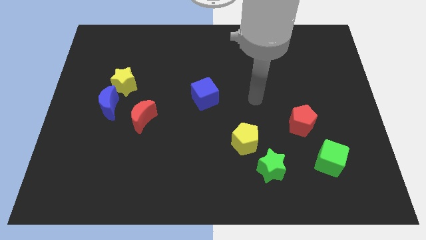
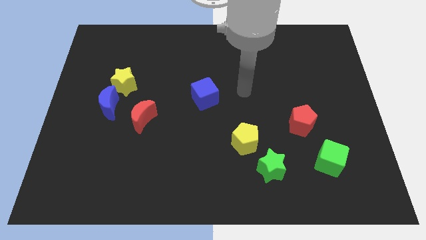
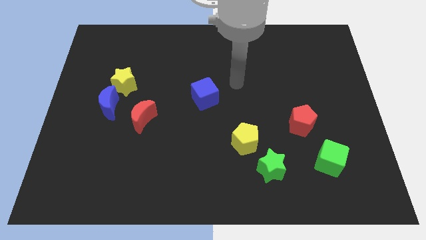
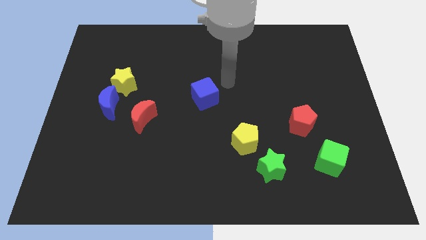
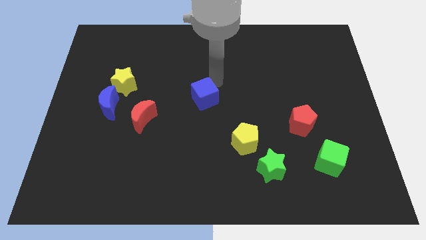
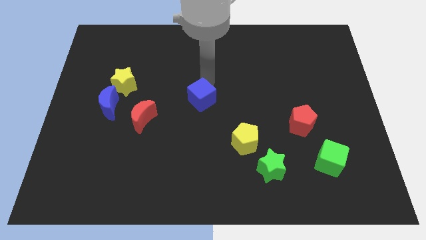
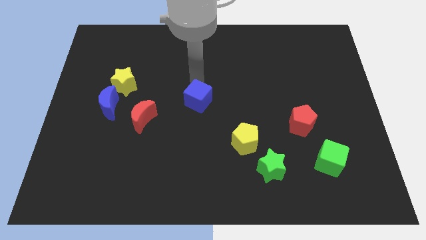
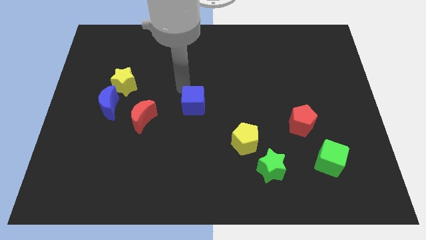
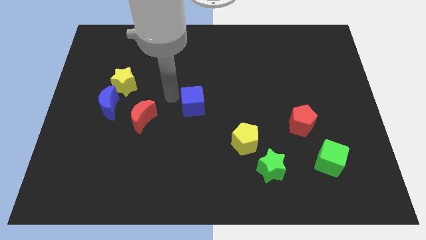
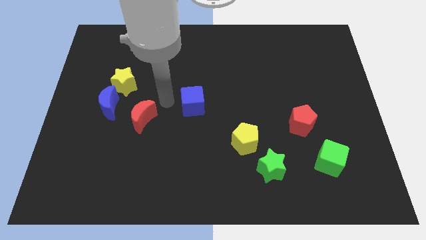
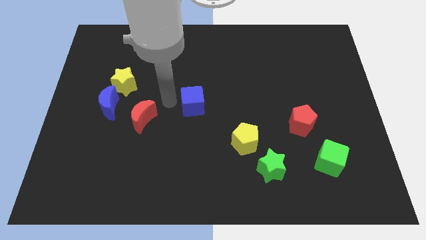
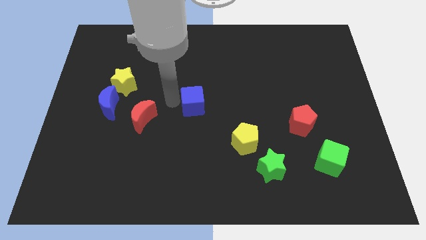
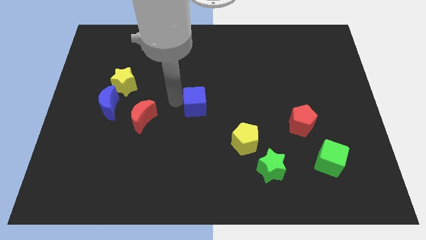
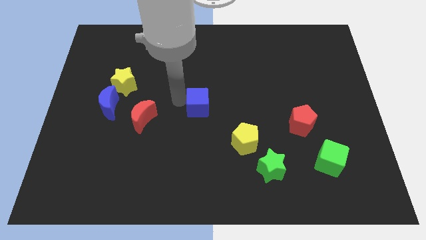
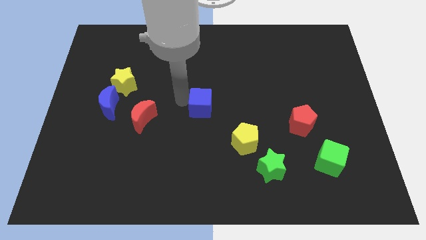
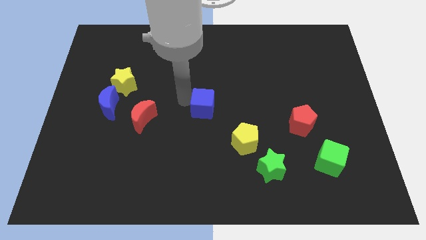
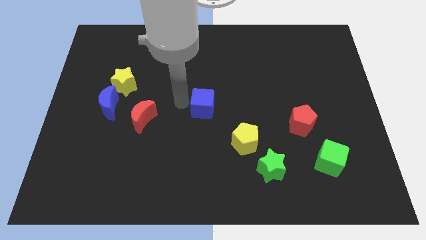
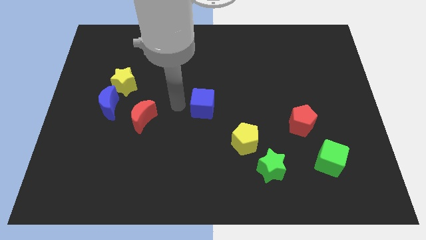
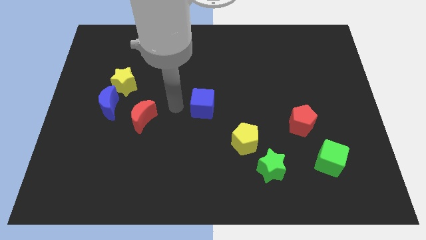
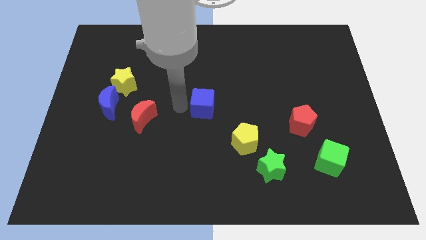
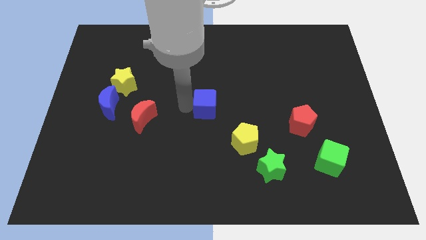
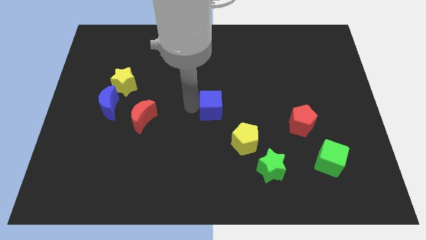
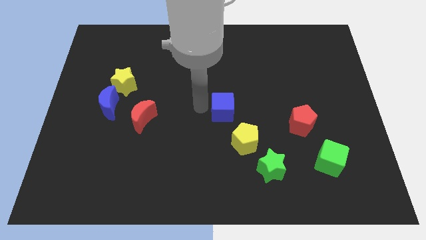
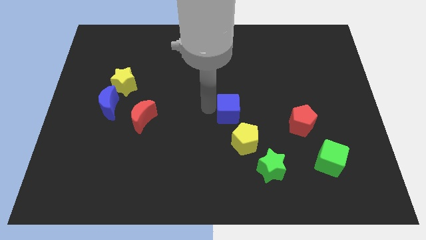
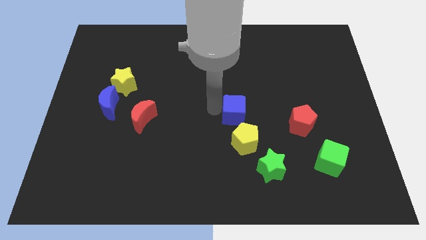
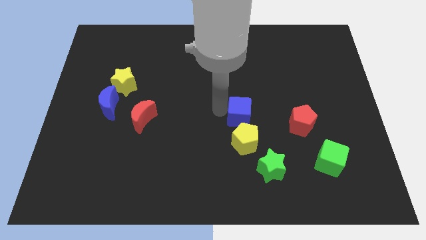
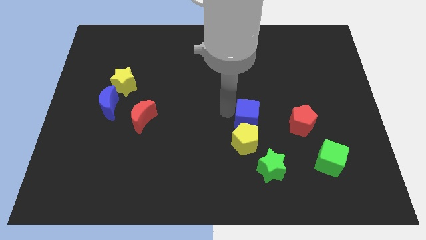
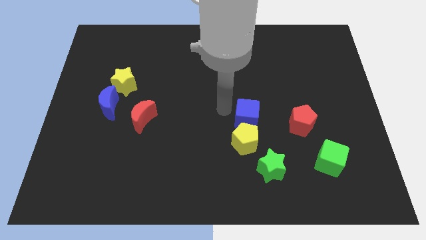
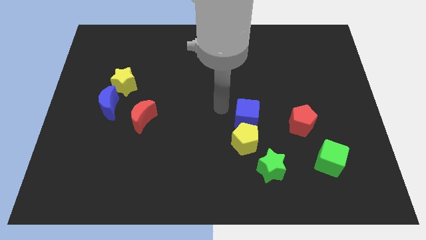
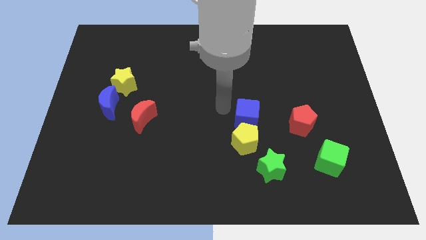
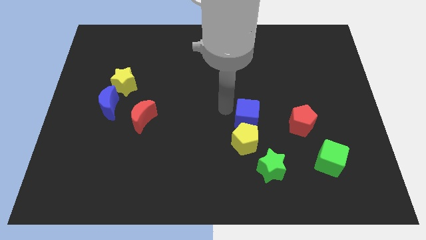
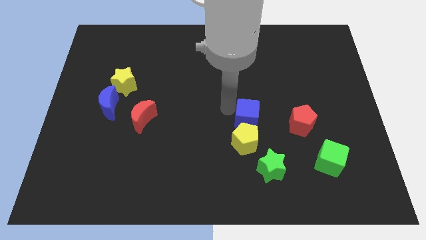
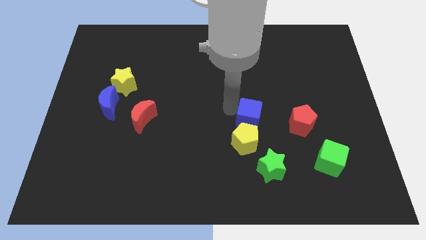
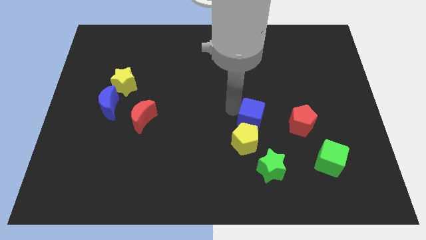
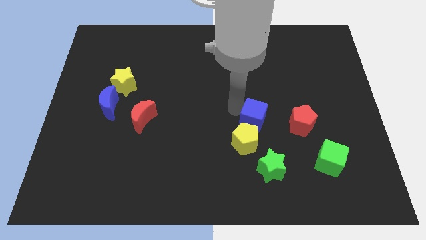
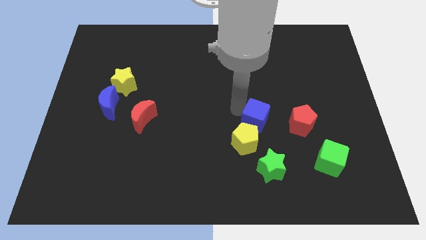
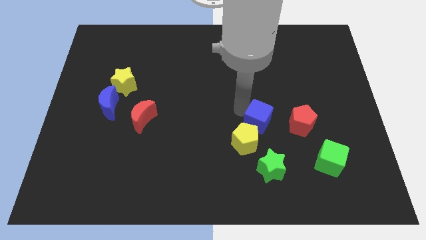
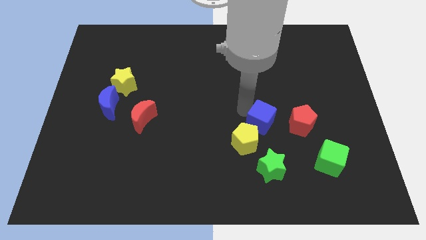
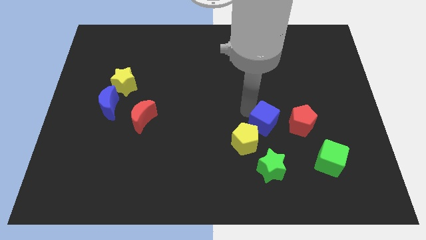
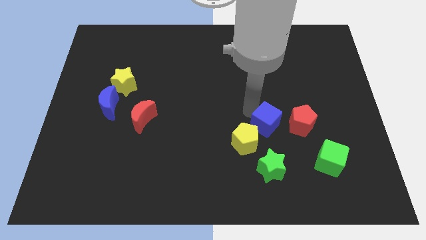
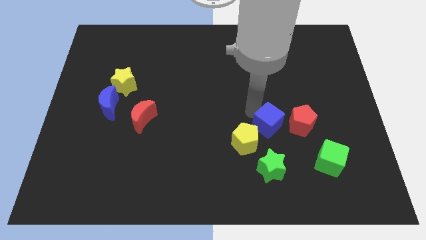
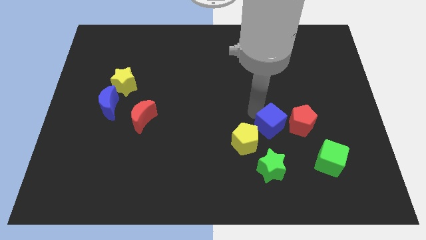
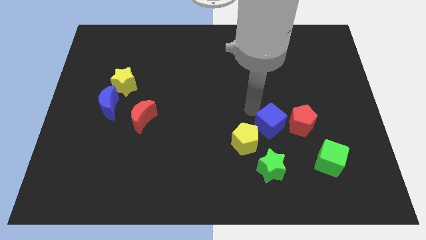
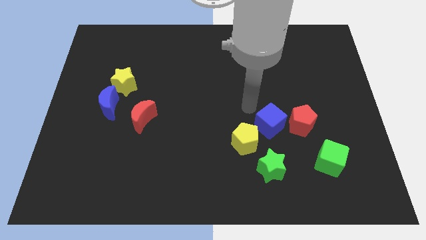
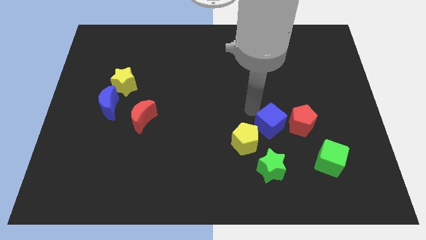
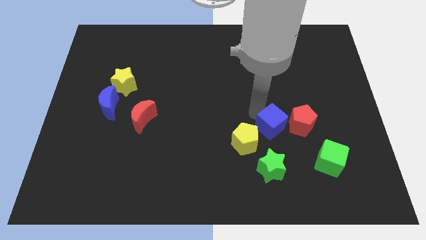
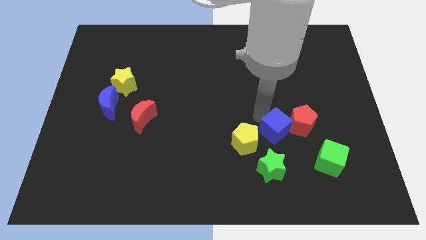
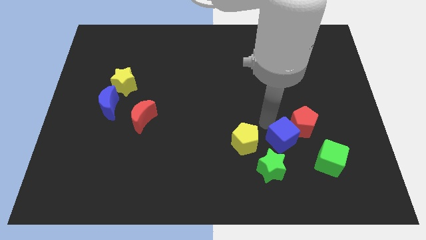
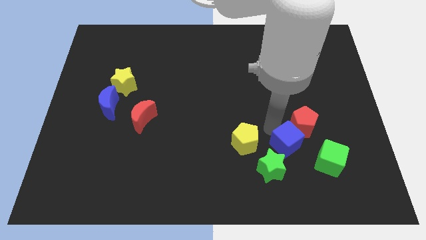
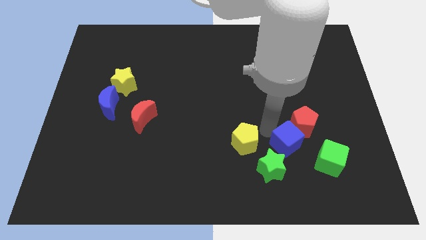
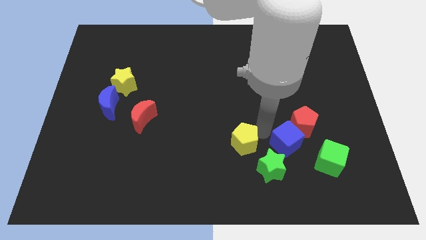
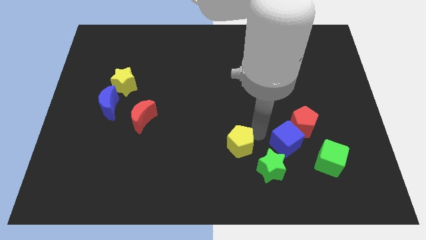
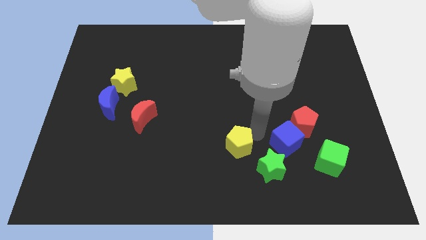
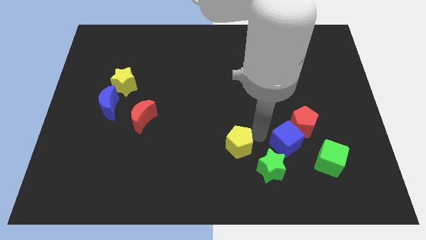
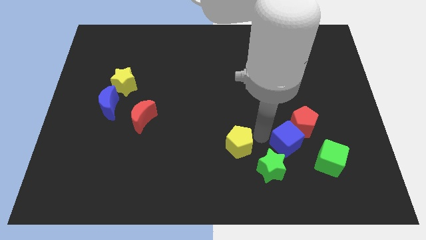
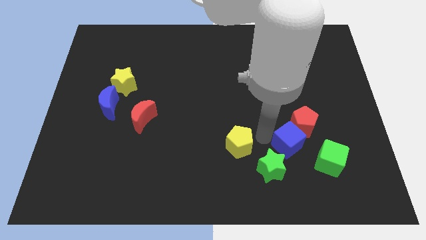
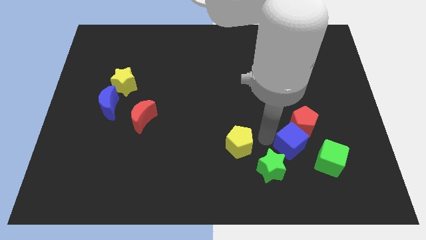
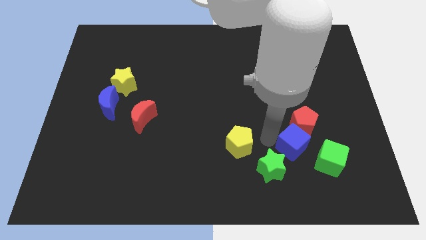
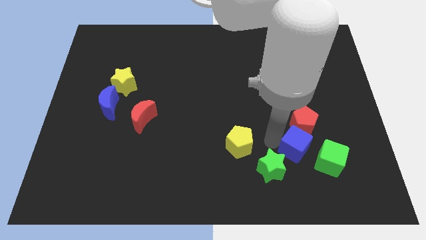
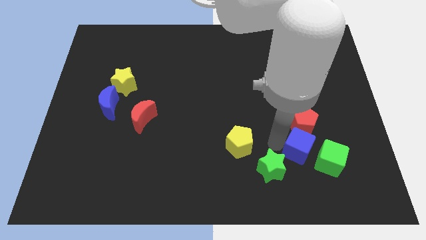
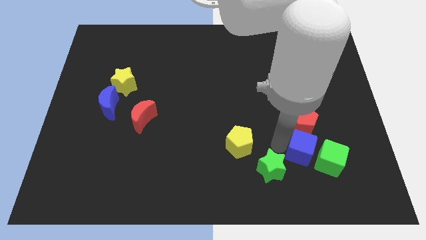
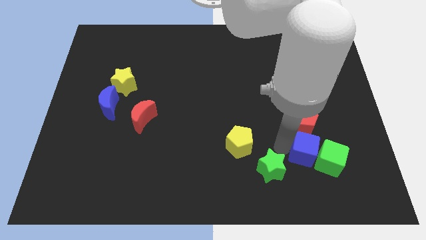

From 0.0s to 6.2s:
slide the blue cube close to the green cube
